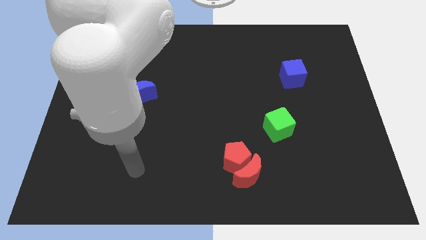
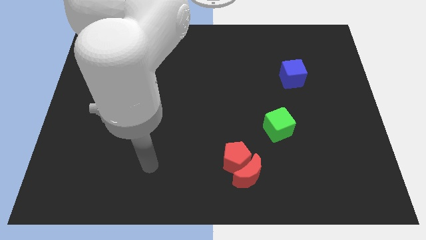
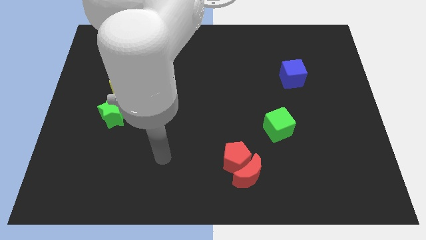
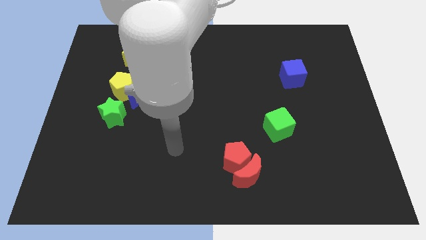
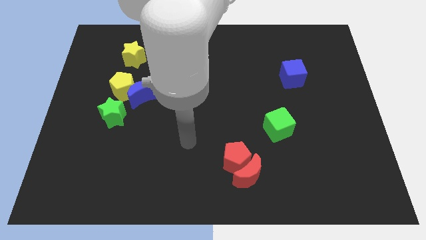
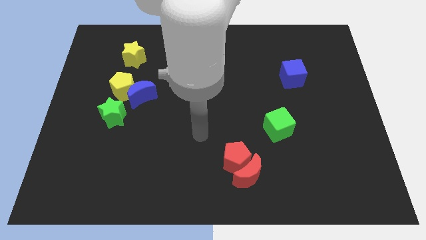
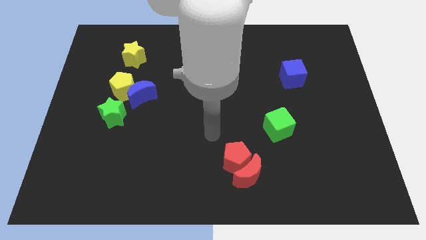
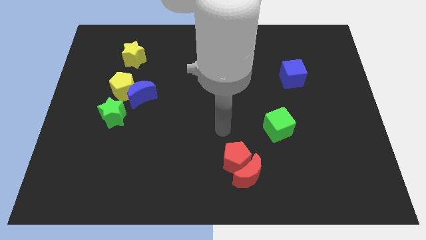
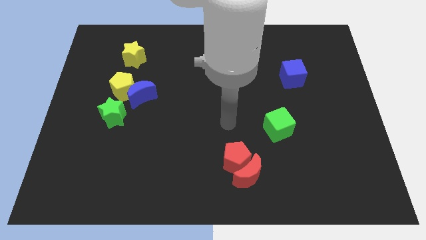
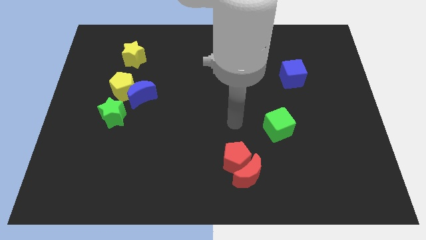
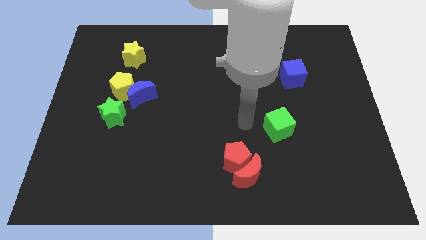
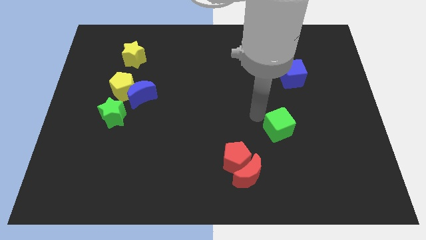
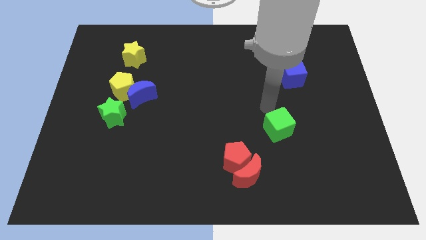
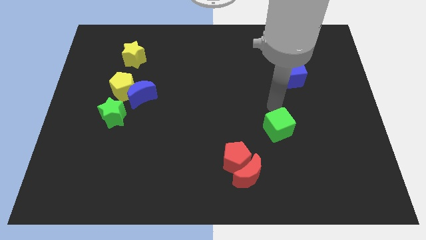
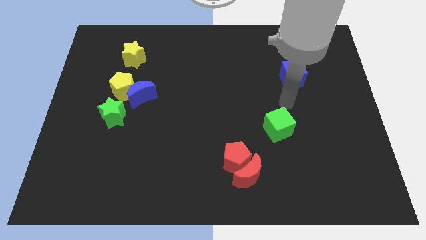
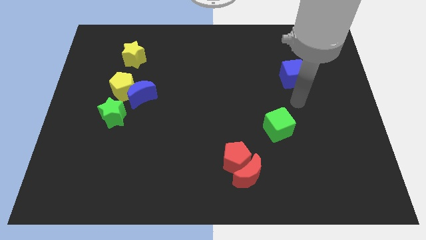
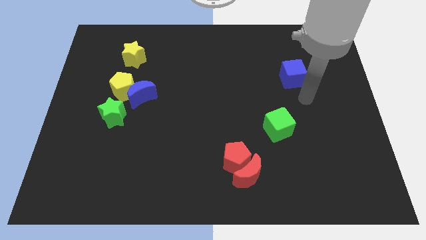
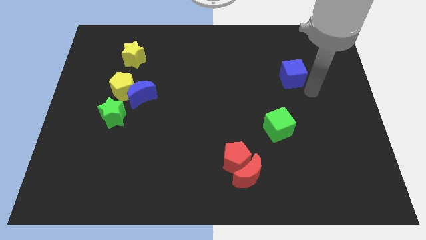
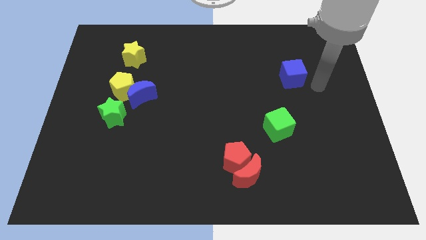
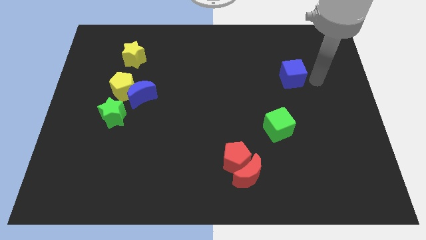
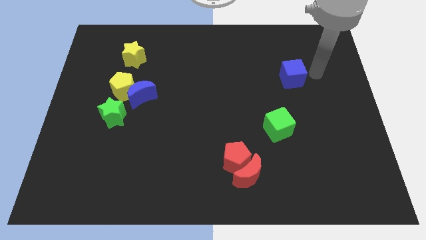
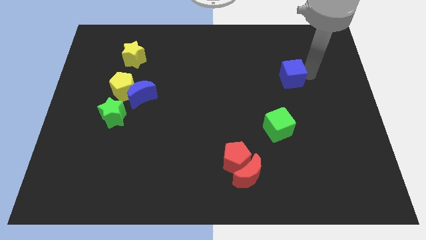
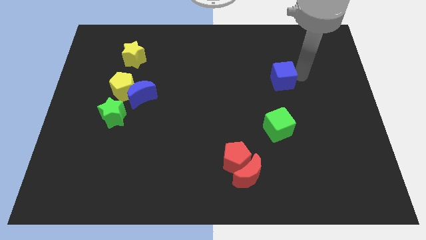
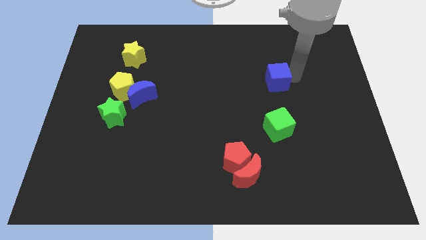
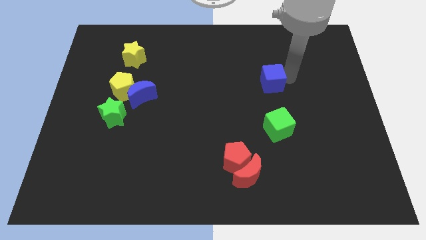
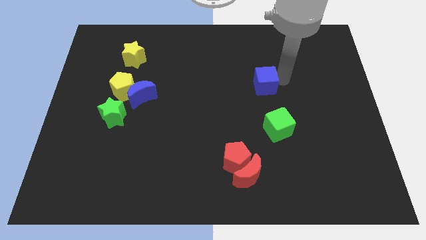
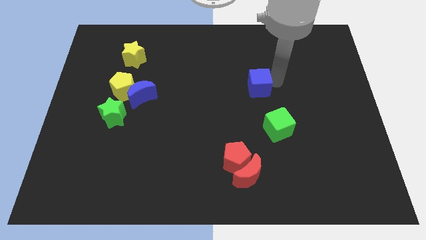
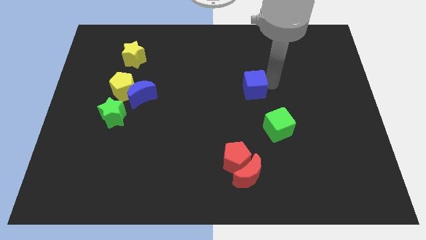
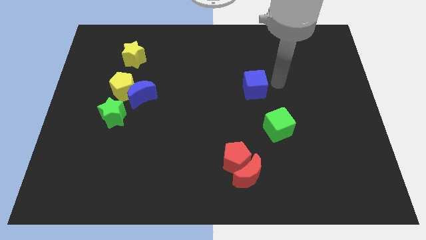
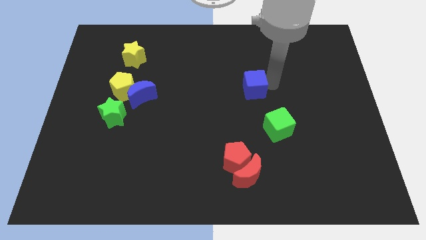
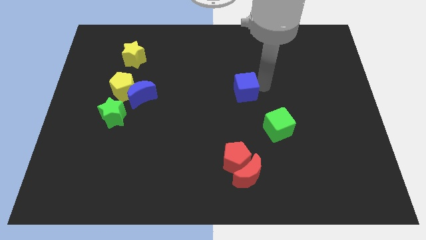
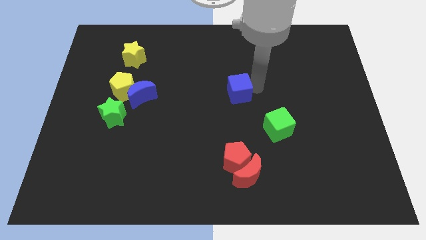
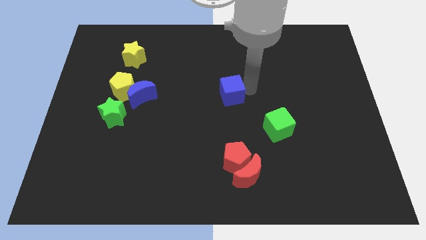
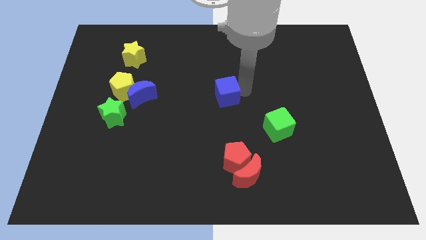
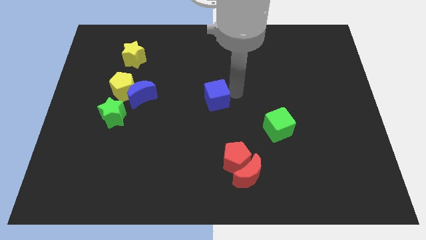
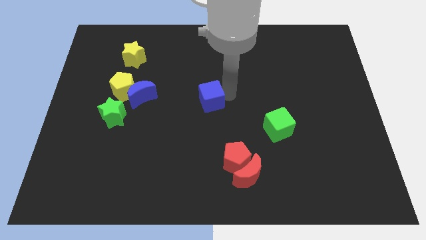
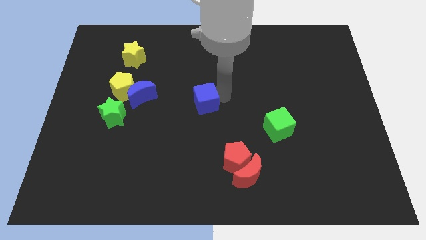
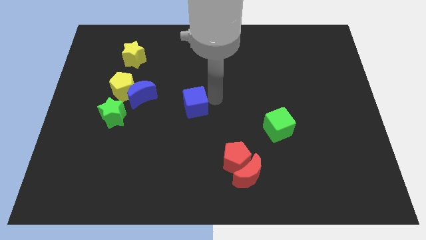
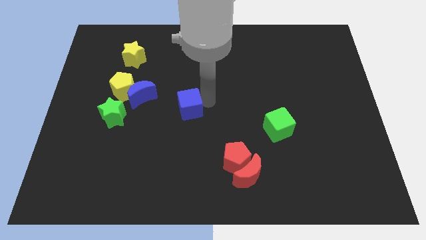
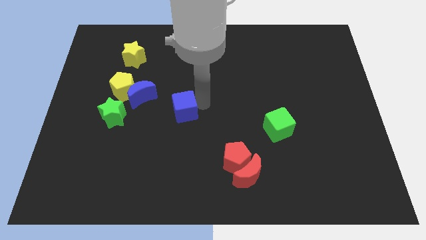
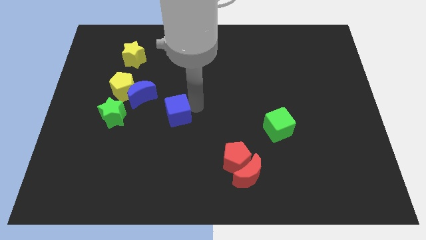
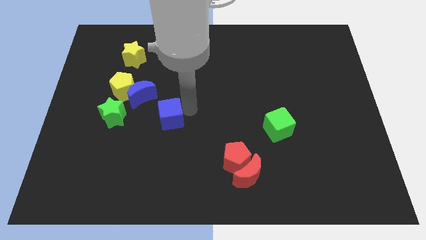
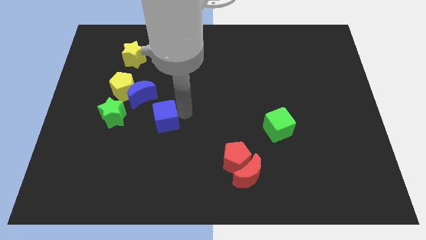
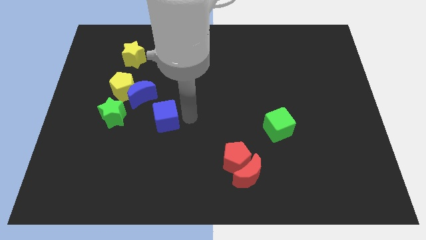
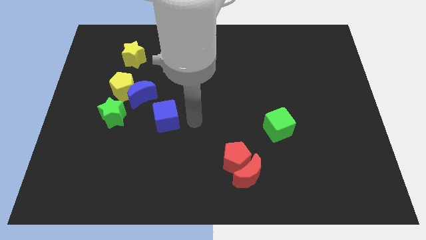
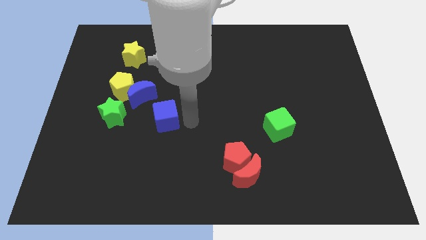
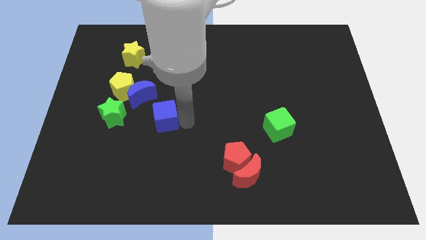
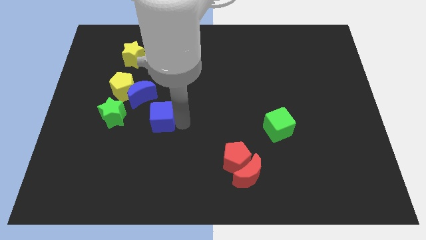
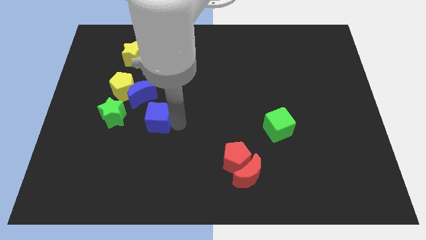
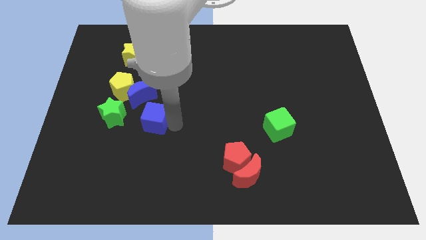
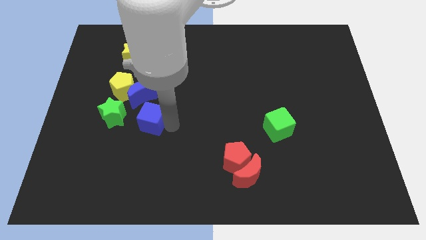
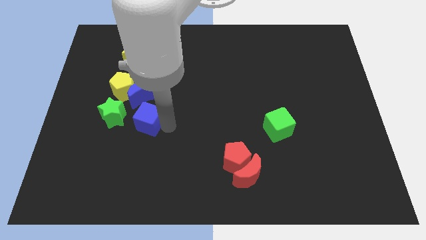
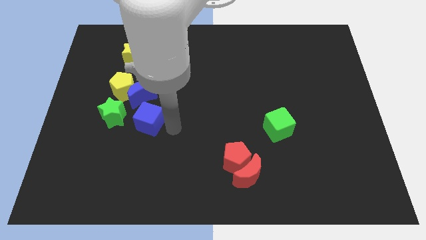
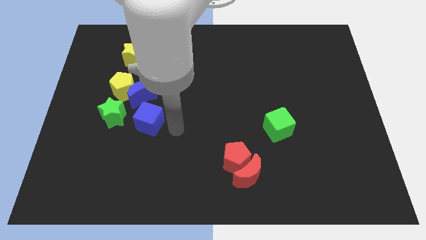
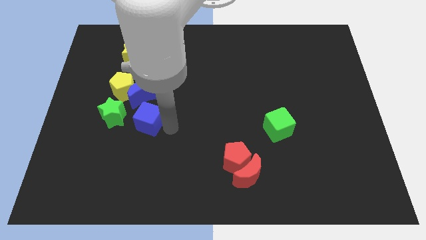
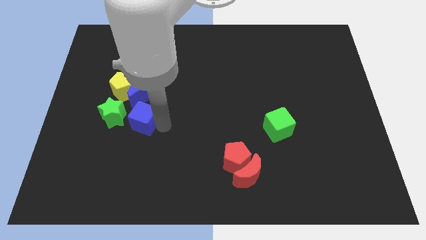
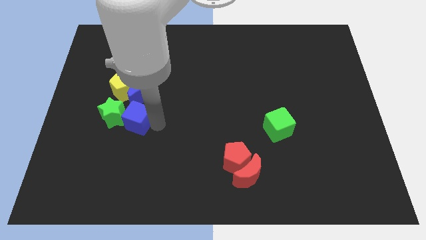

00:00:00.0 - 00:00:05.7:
push the blue cube to the green star

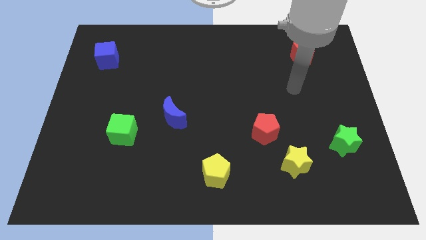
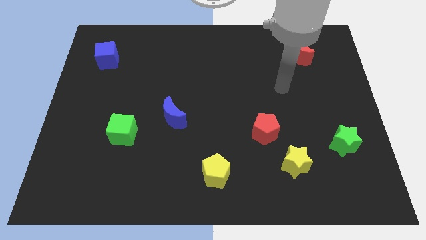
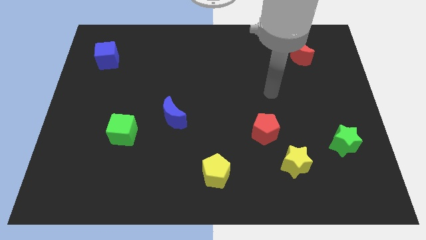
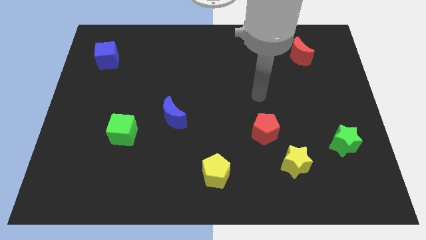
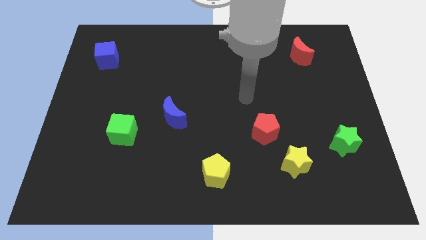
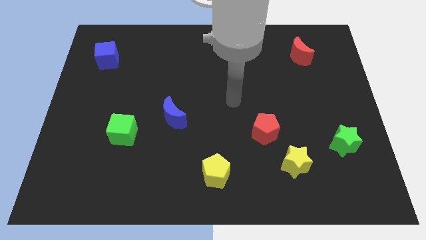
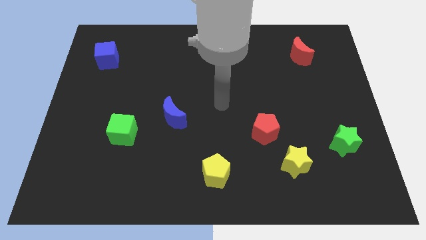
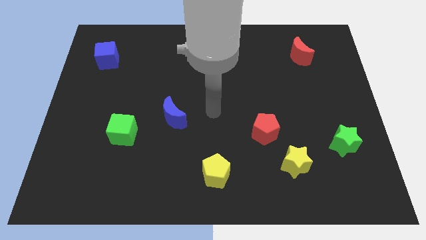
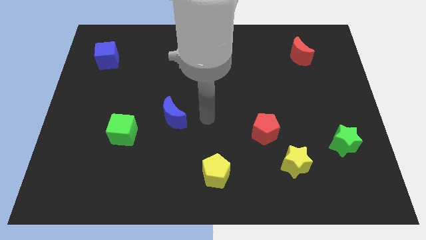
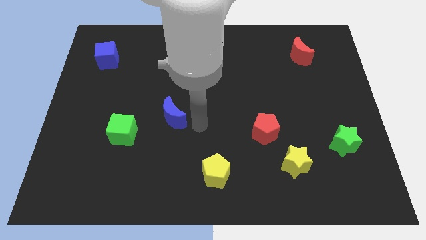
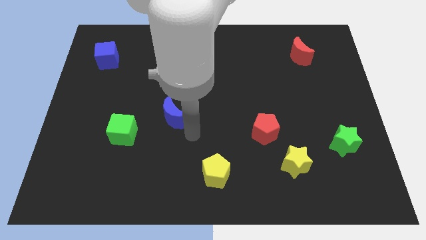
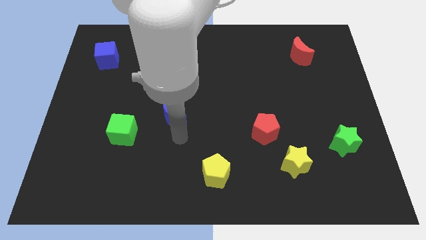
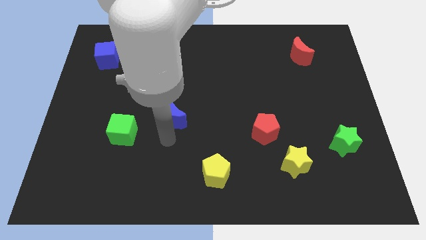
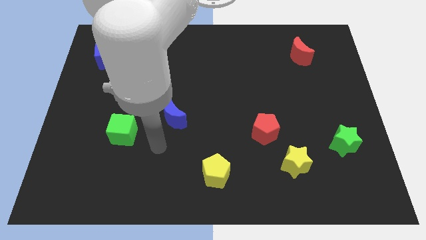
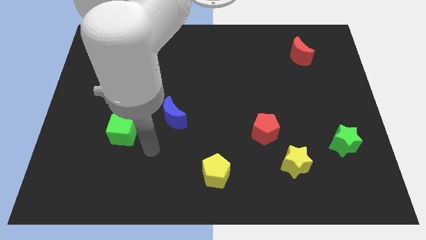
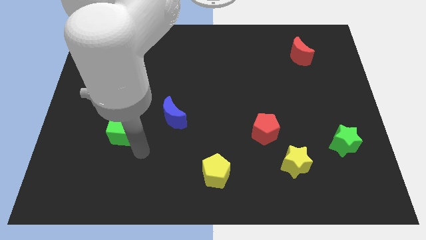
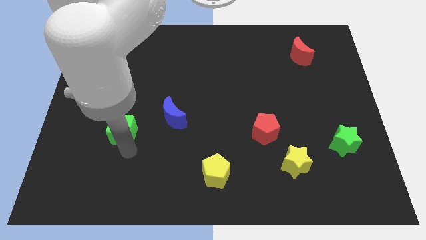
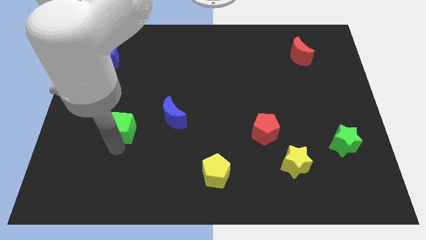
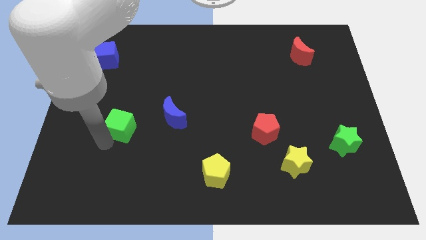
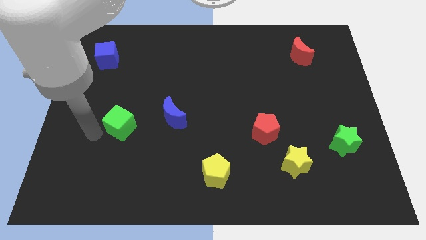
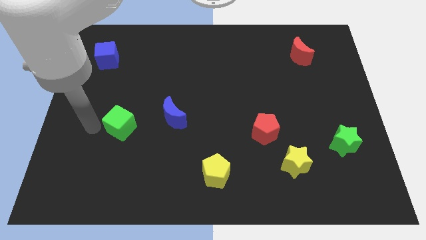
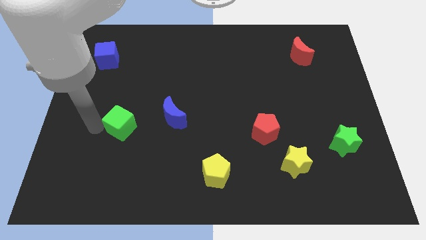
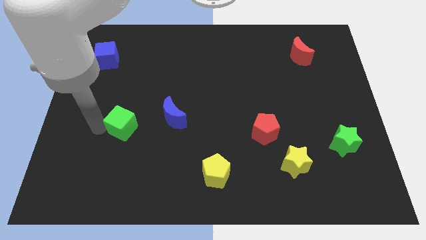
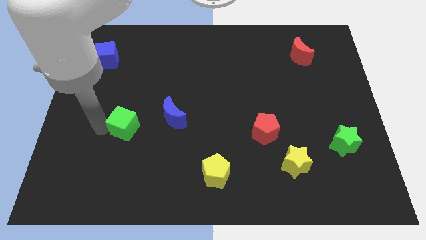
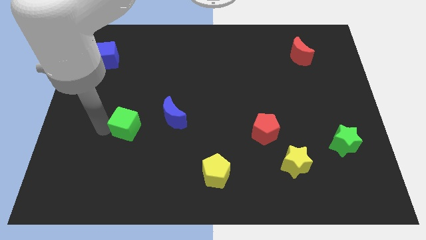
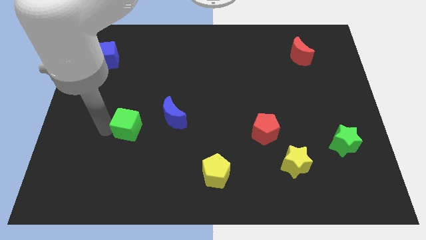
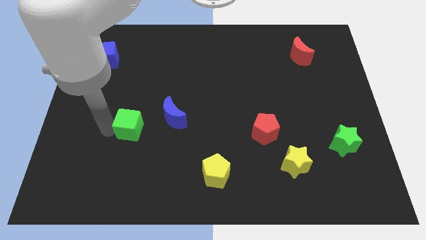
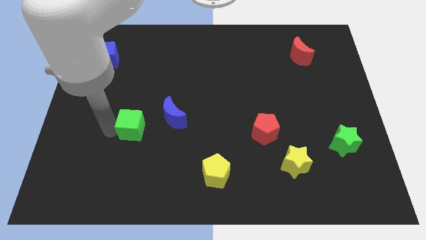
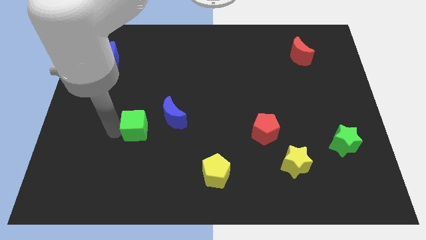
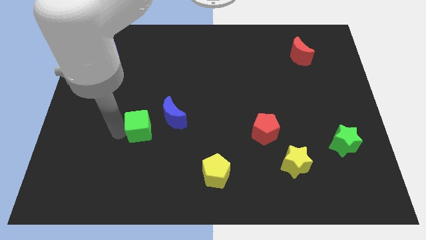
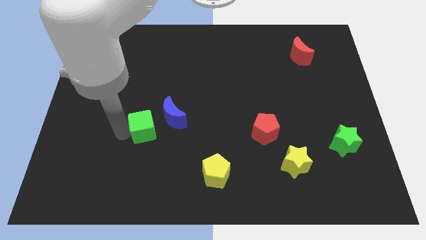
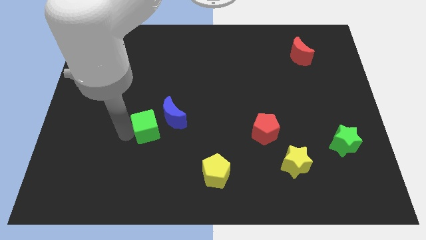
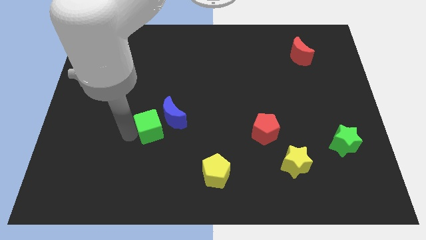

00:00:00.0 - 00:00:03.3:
put the green cube close to the blue moon
